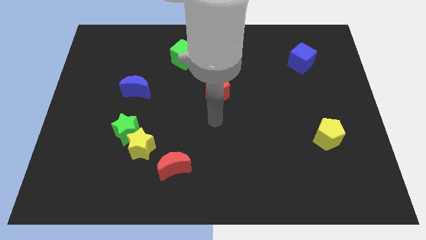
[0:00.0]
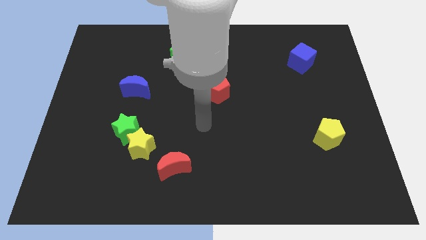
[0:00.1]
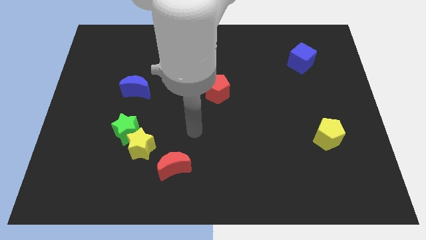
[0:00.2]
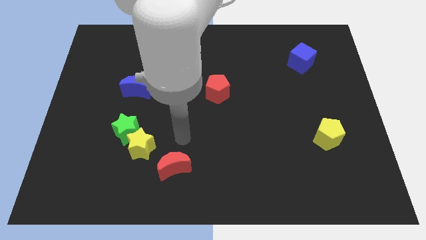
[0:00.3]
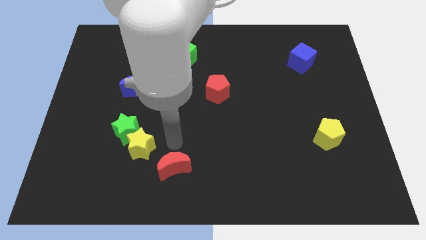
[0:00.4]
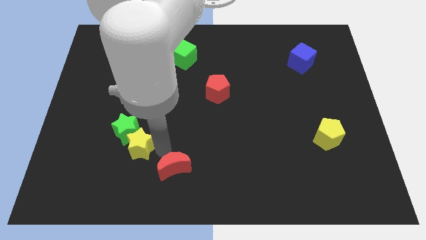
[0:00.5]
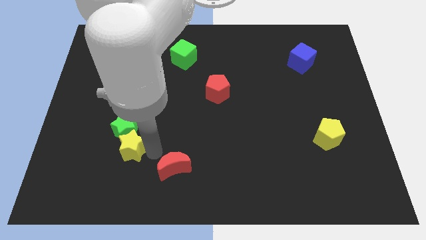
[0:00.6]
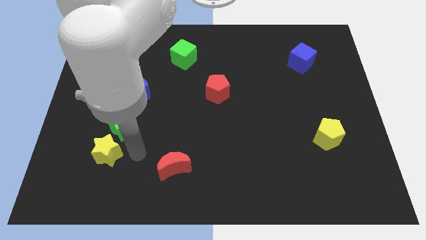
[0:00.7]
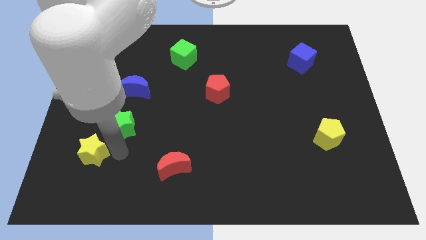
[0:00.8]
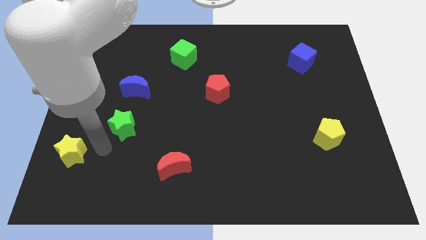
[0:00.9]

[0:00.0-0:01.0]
separate the green star from the yellow star

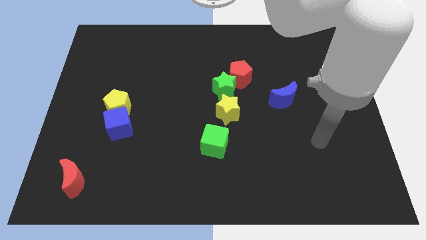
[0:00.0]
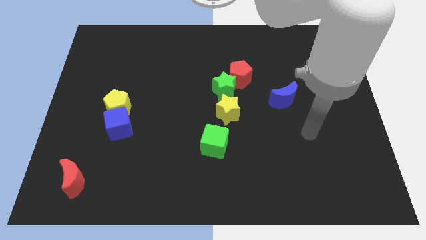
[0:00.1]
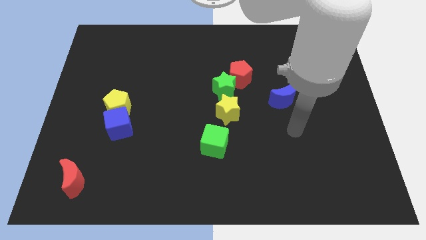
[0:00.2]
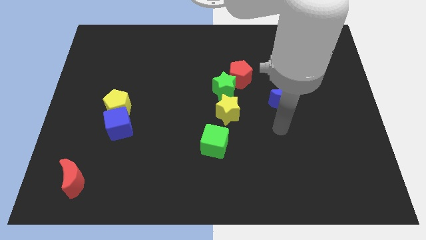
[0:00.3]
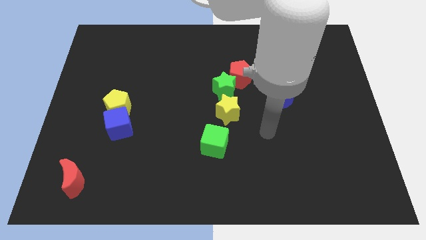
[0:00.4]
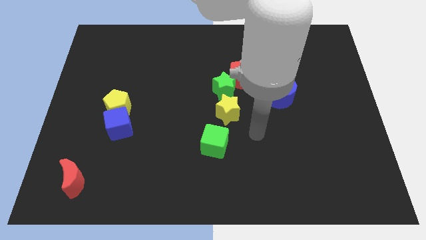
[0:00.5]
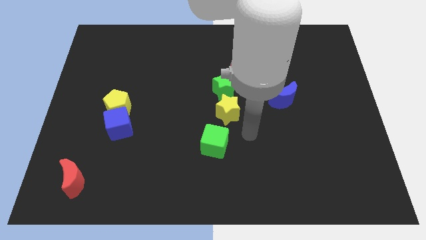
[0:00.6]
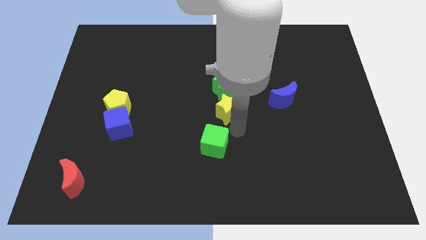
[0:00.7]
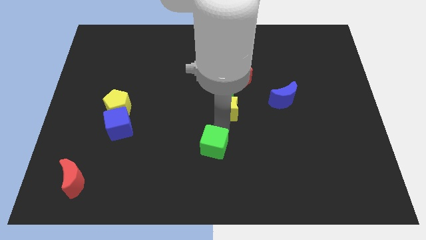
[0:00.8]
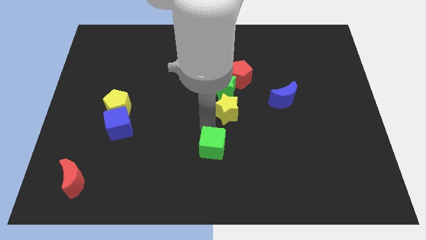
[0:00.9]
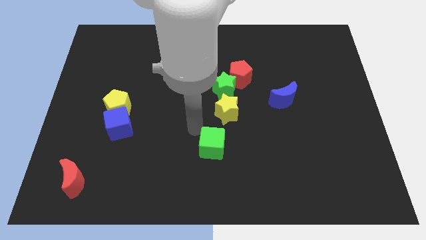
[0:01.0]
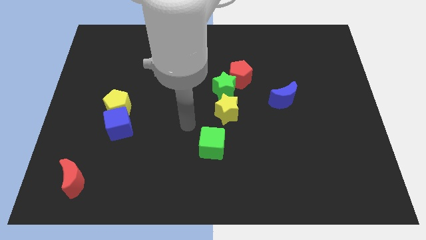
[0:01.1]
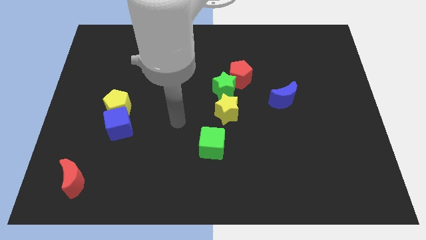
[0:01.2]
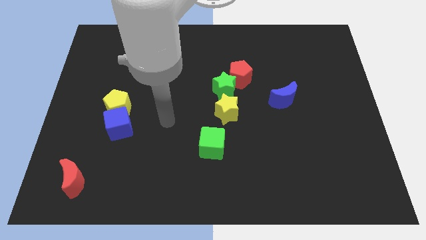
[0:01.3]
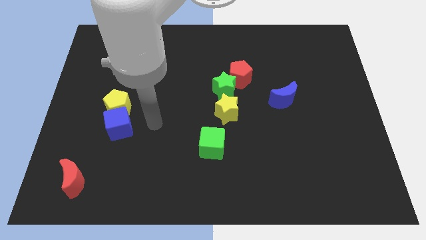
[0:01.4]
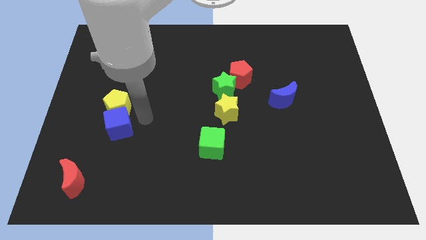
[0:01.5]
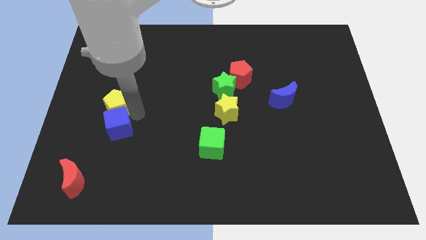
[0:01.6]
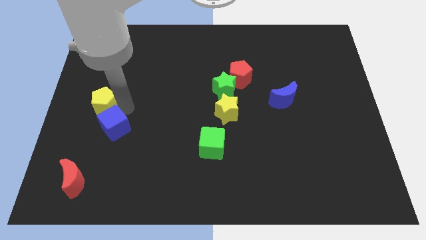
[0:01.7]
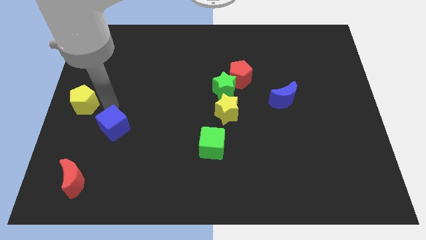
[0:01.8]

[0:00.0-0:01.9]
separate the blue cube from the yellow pentagon

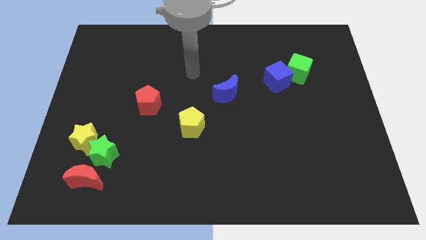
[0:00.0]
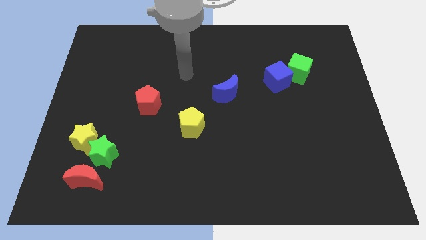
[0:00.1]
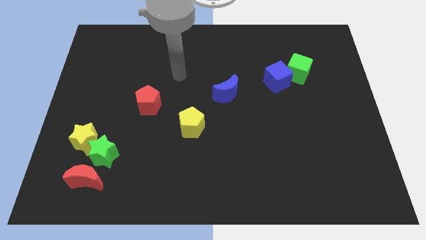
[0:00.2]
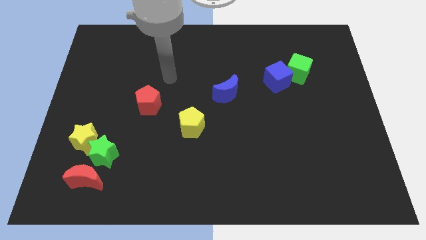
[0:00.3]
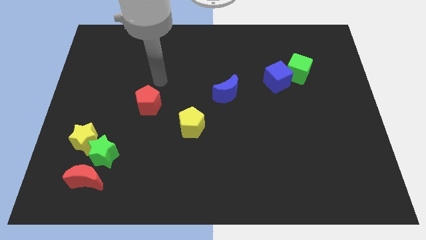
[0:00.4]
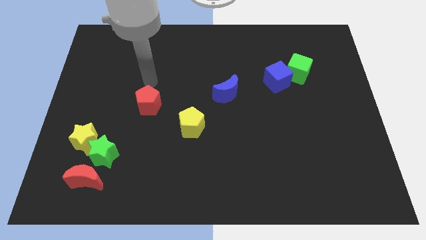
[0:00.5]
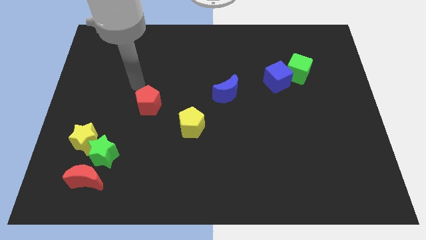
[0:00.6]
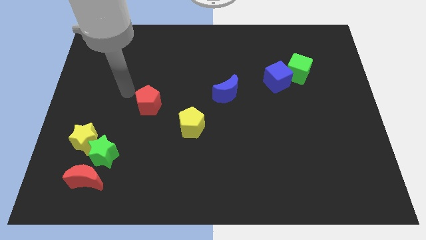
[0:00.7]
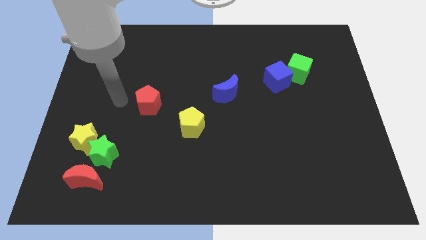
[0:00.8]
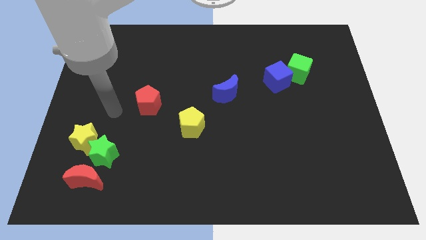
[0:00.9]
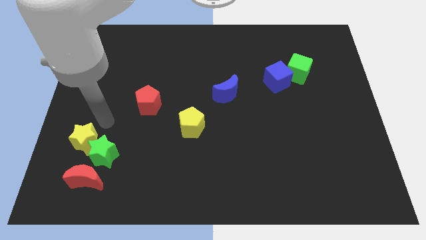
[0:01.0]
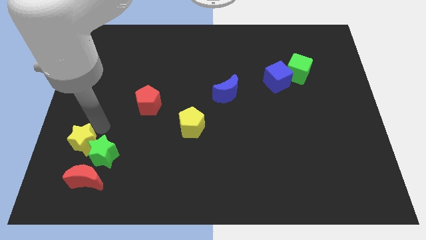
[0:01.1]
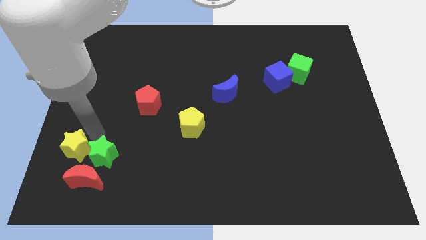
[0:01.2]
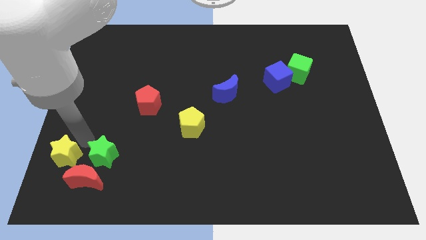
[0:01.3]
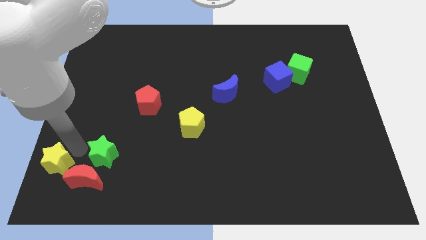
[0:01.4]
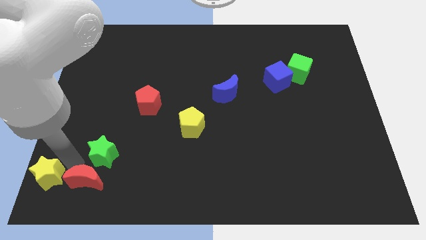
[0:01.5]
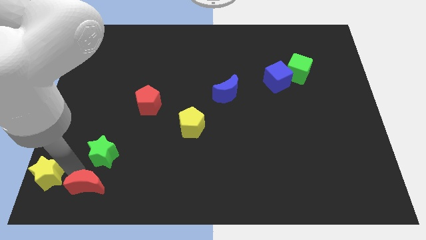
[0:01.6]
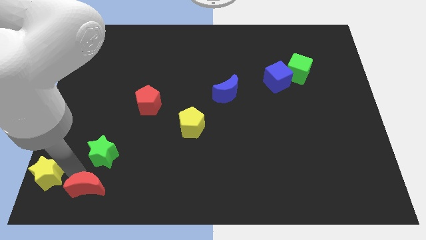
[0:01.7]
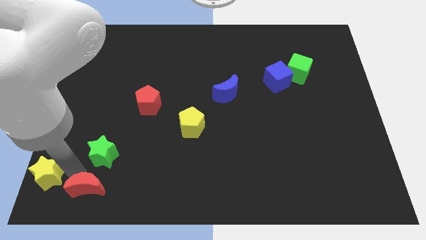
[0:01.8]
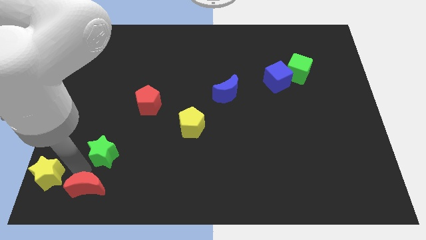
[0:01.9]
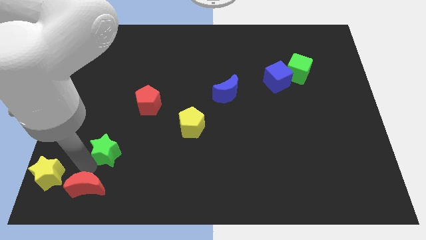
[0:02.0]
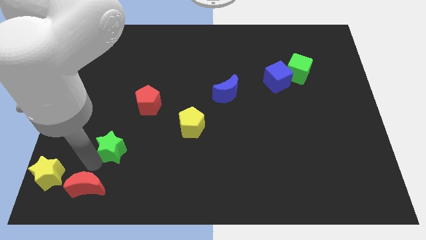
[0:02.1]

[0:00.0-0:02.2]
separate the green star from the yellow star and red moon

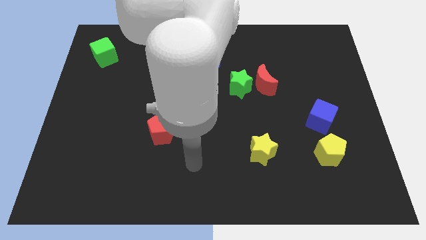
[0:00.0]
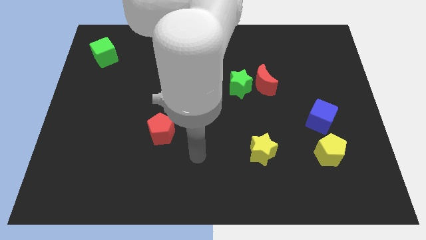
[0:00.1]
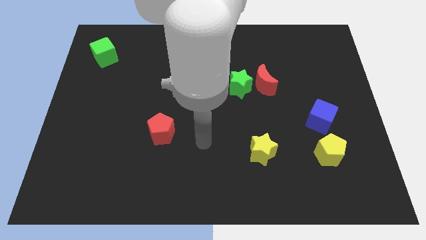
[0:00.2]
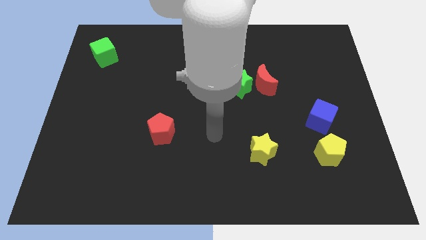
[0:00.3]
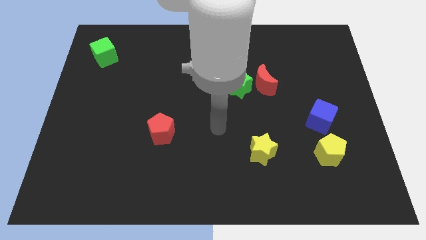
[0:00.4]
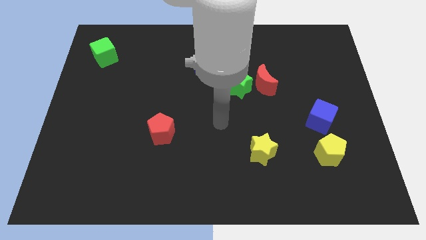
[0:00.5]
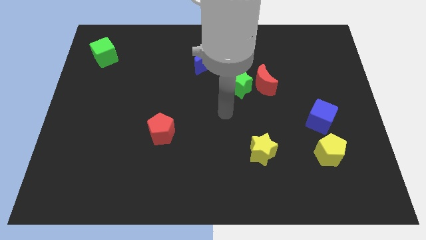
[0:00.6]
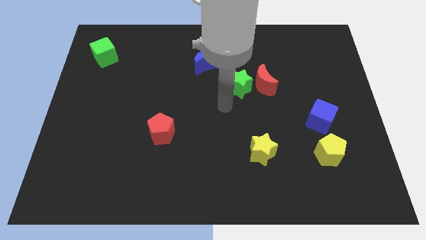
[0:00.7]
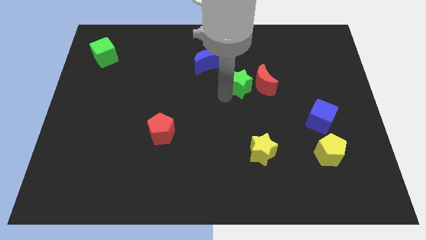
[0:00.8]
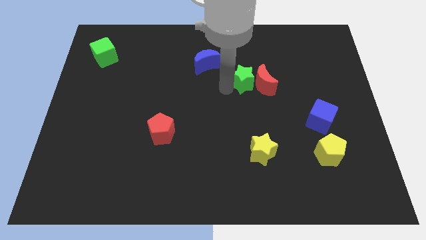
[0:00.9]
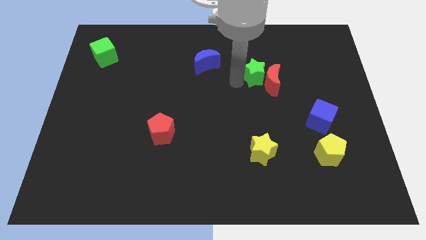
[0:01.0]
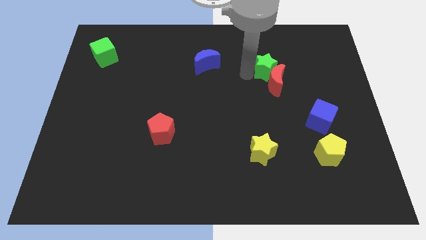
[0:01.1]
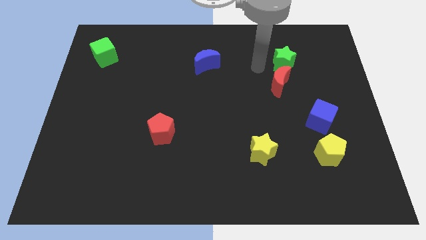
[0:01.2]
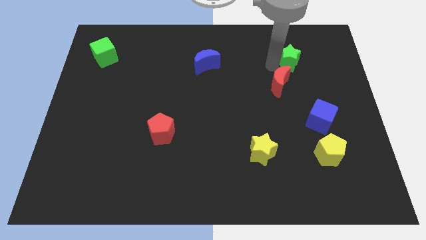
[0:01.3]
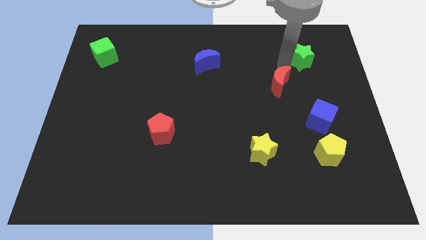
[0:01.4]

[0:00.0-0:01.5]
move the red moon away from the green star

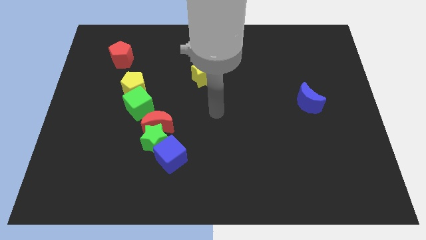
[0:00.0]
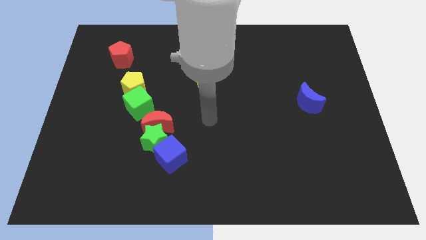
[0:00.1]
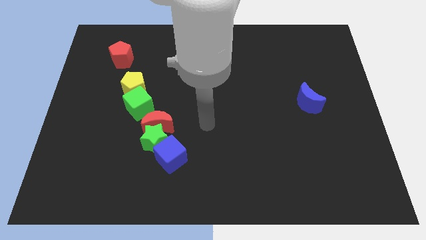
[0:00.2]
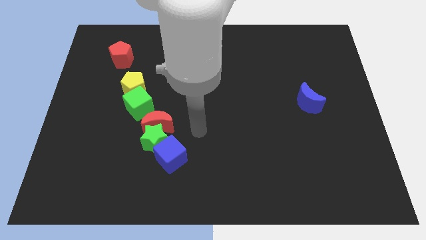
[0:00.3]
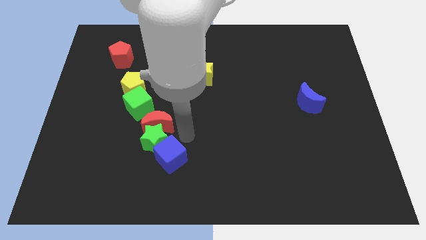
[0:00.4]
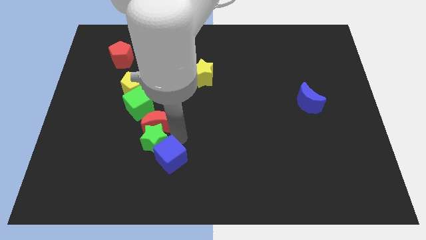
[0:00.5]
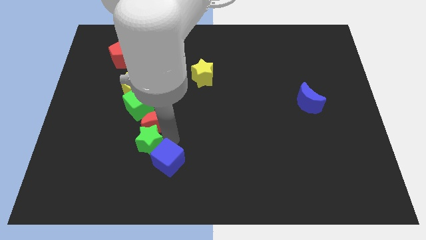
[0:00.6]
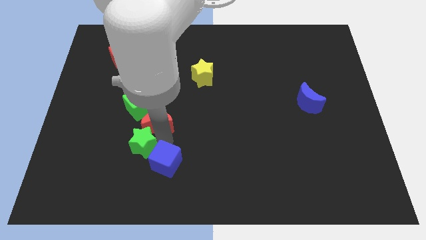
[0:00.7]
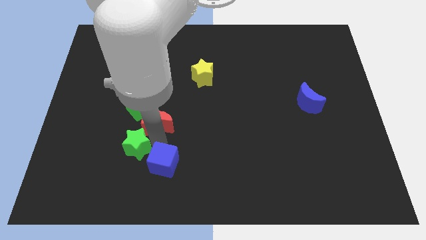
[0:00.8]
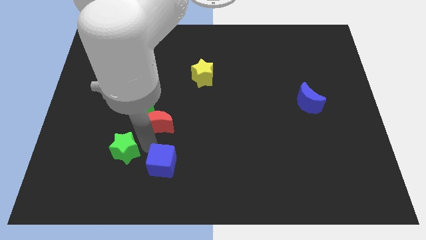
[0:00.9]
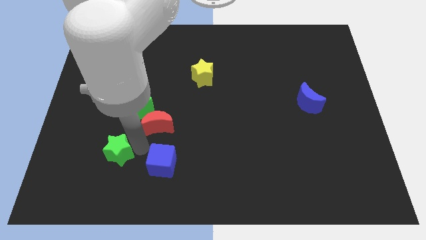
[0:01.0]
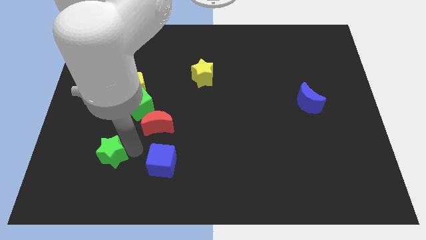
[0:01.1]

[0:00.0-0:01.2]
pull the green star apart from the red moon and blue cube

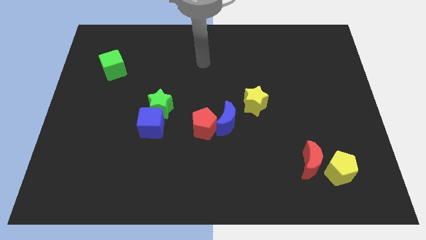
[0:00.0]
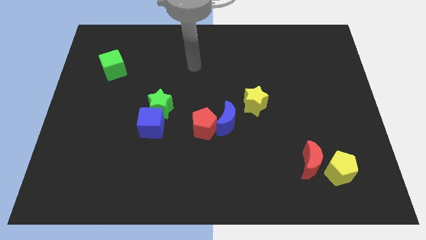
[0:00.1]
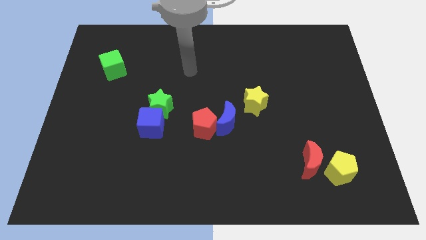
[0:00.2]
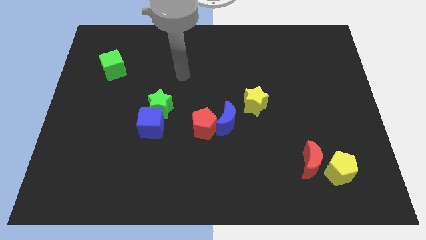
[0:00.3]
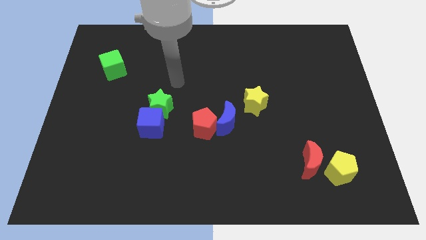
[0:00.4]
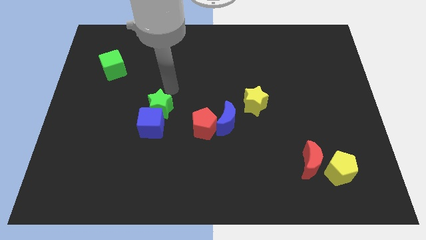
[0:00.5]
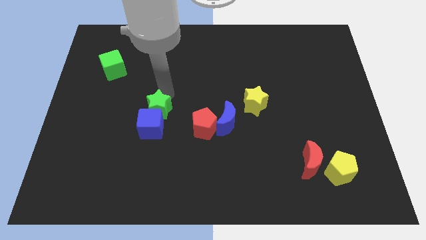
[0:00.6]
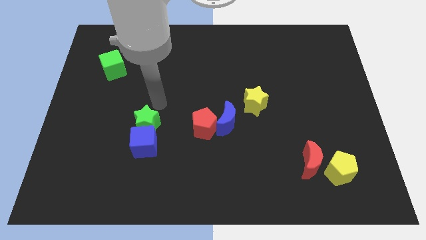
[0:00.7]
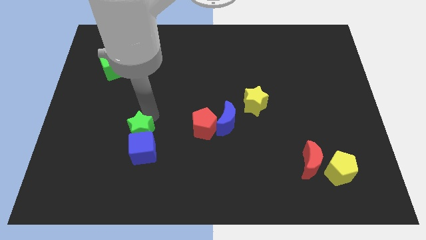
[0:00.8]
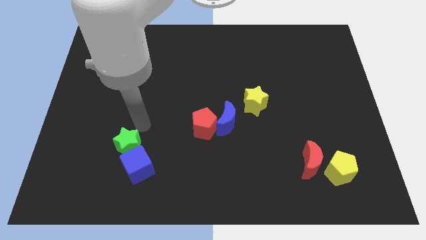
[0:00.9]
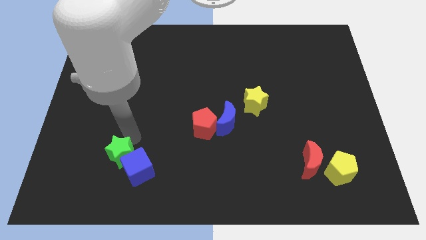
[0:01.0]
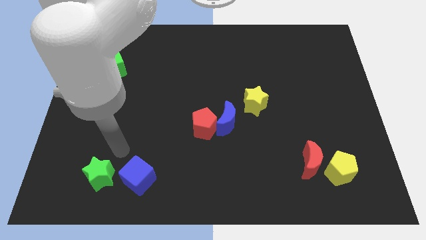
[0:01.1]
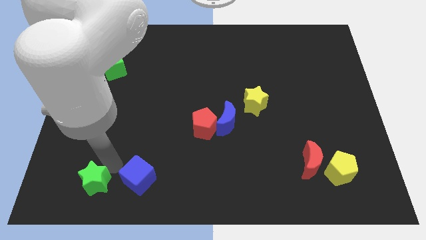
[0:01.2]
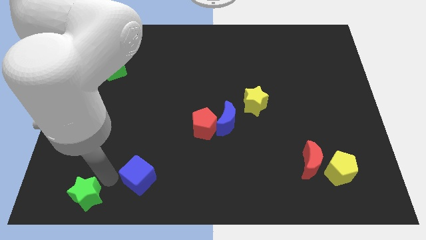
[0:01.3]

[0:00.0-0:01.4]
move the blue cube away from the green star
